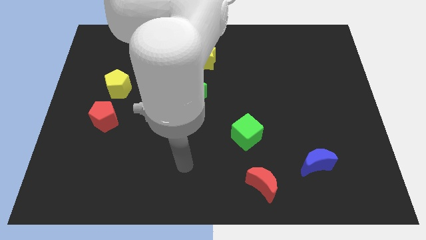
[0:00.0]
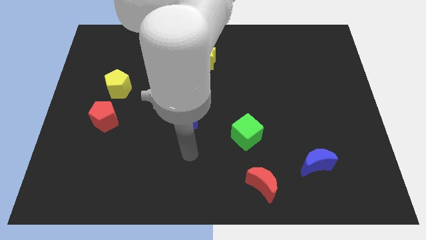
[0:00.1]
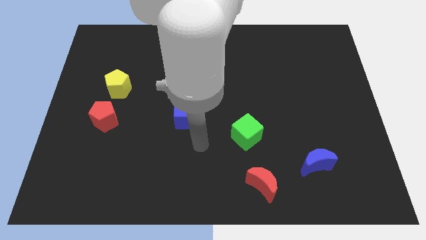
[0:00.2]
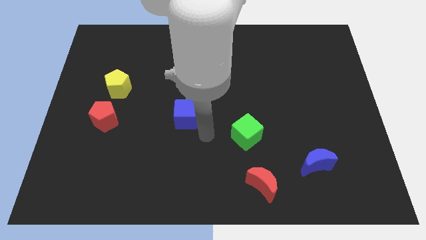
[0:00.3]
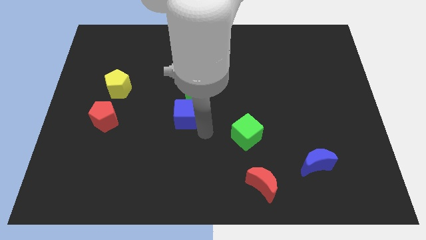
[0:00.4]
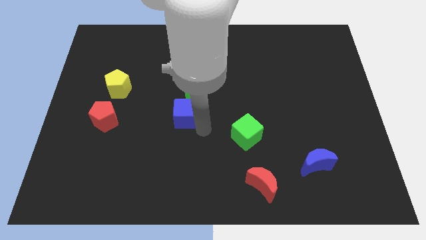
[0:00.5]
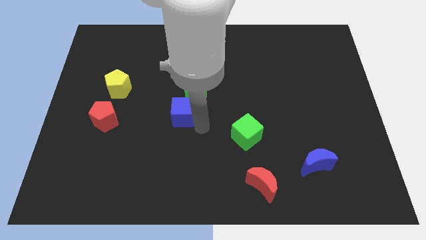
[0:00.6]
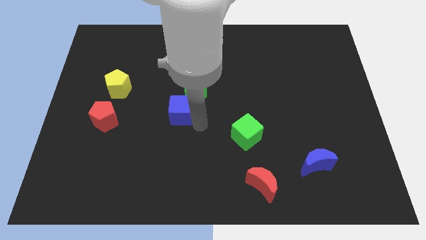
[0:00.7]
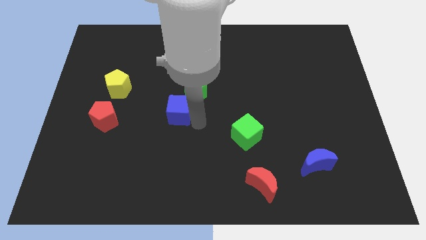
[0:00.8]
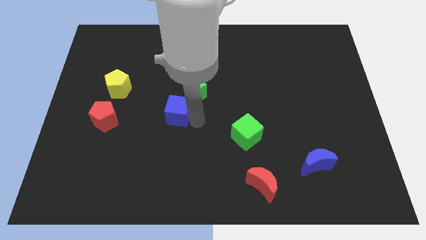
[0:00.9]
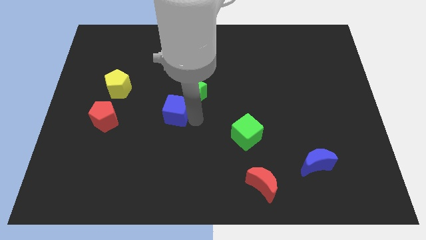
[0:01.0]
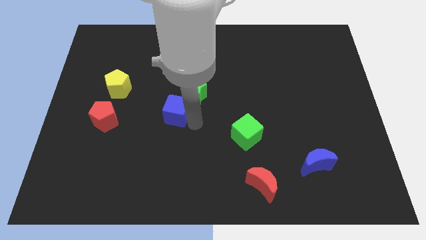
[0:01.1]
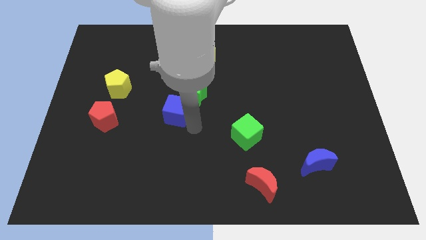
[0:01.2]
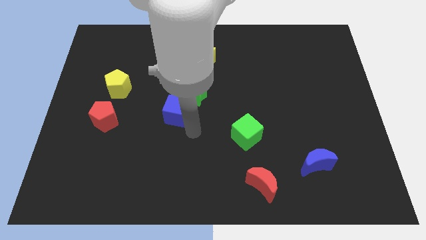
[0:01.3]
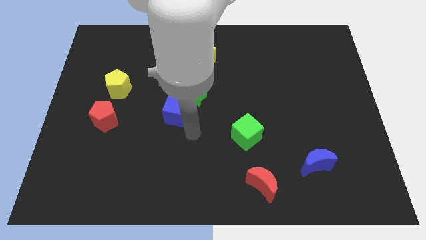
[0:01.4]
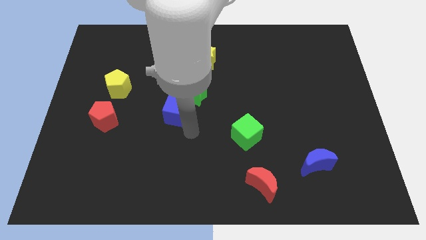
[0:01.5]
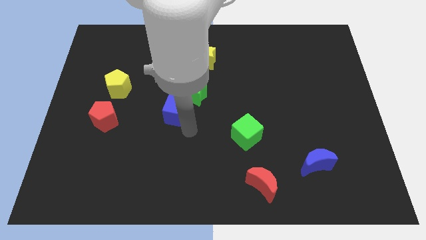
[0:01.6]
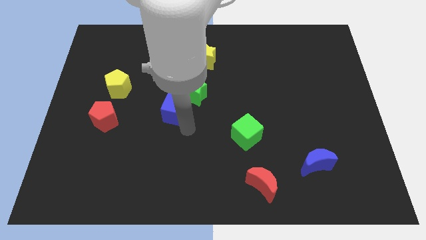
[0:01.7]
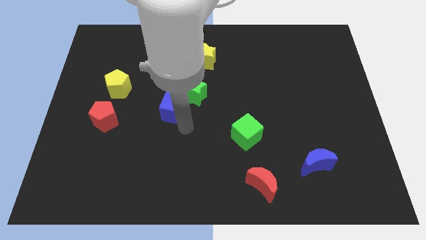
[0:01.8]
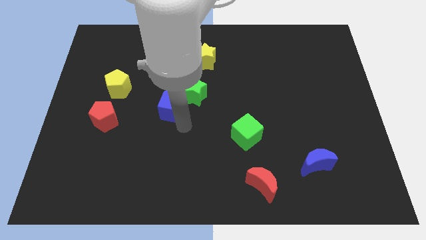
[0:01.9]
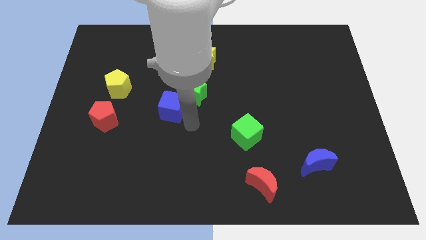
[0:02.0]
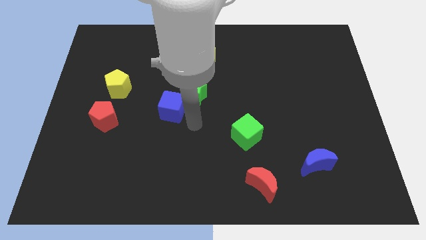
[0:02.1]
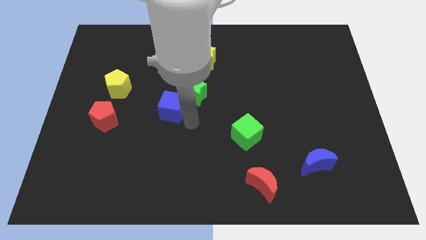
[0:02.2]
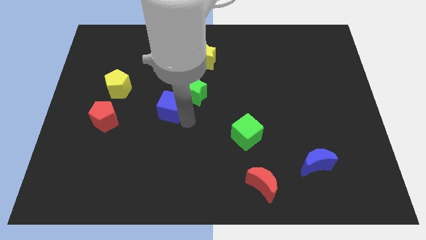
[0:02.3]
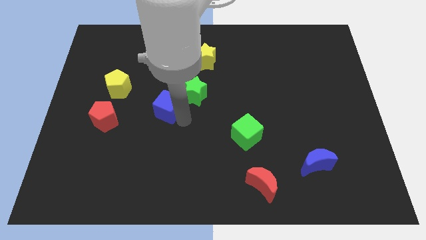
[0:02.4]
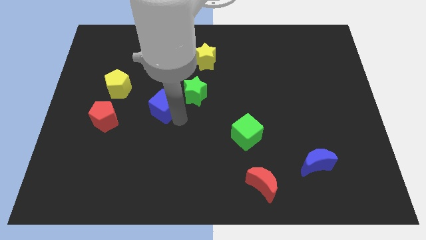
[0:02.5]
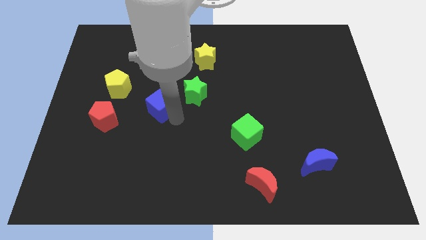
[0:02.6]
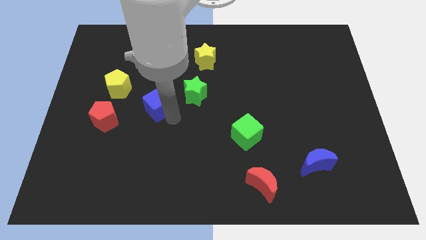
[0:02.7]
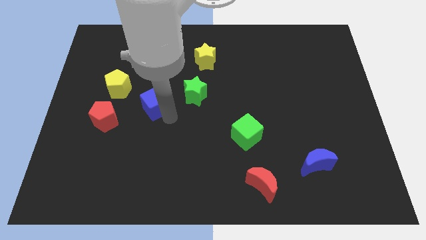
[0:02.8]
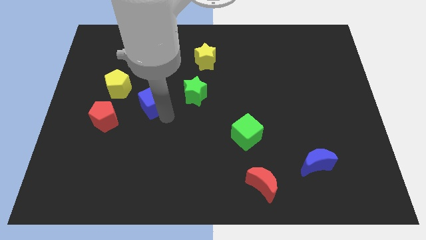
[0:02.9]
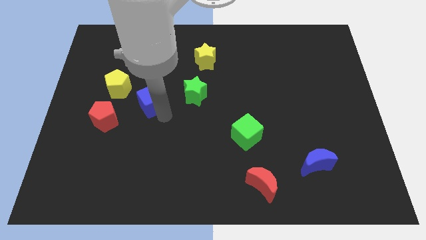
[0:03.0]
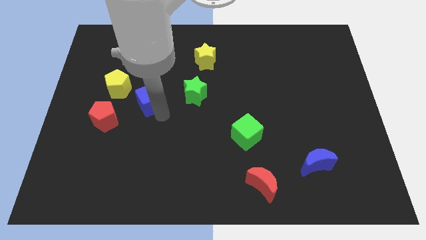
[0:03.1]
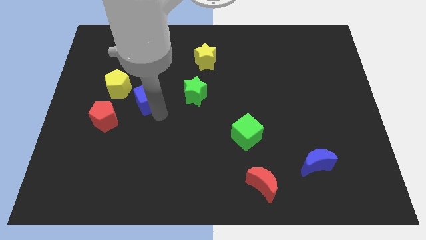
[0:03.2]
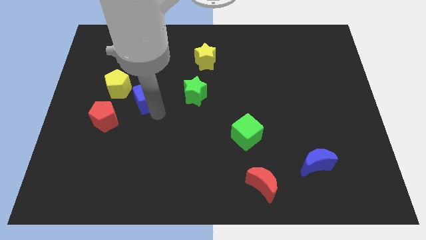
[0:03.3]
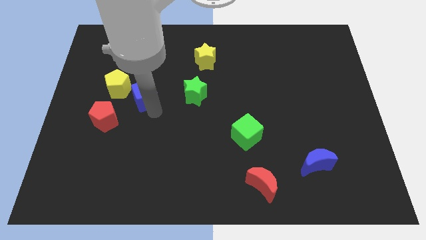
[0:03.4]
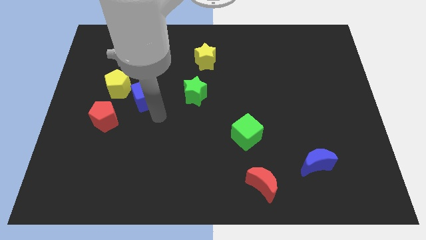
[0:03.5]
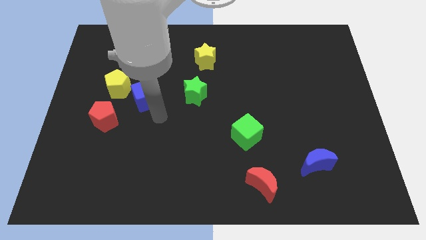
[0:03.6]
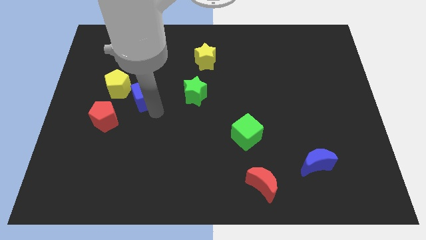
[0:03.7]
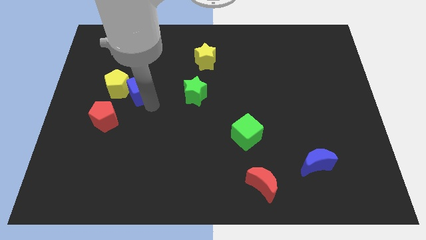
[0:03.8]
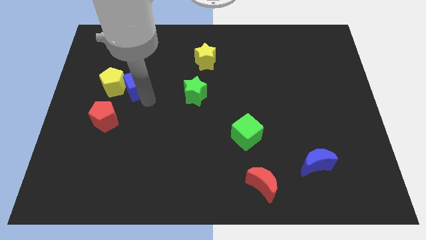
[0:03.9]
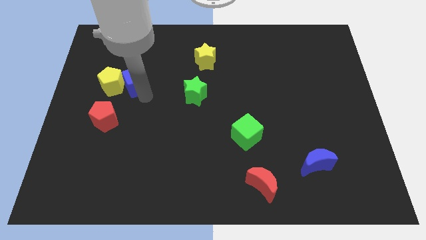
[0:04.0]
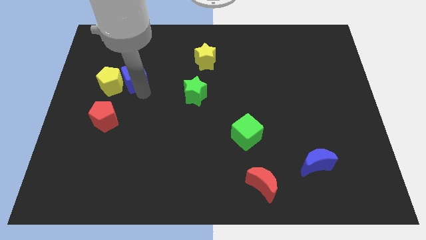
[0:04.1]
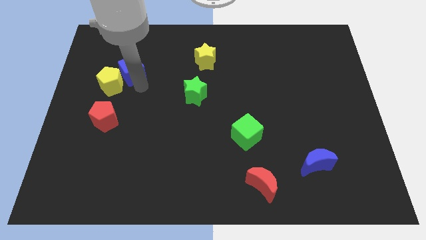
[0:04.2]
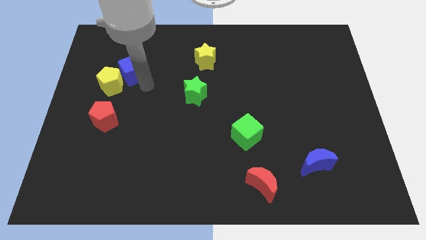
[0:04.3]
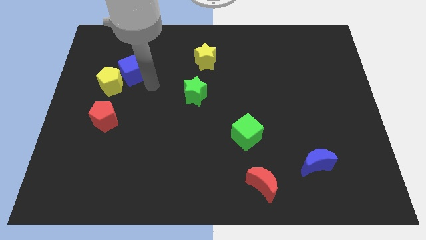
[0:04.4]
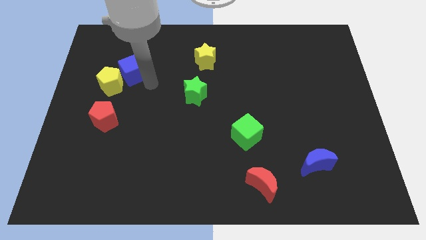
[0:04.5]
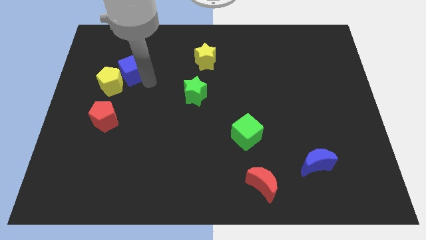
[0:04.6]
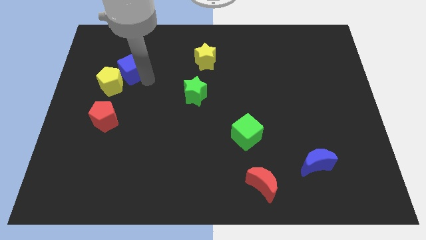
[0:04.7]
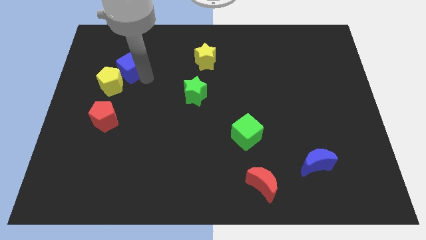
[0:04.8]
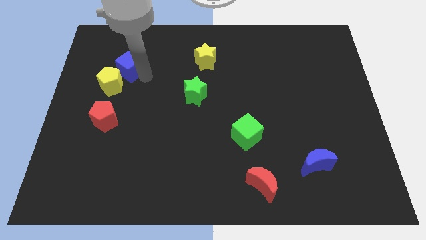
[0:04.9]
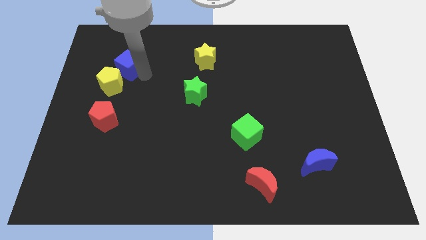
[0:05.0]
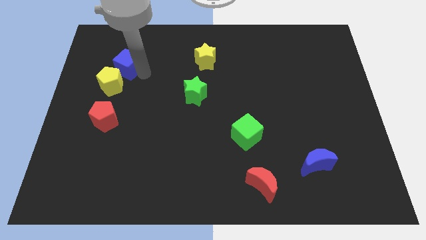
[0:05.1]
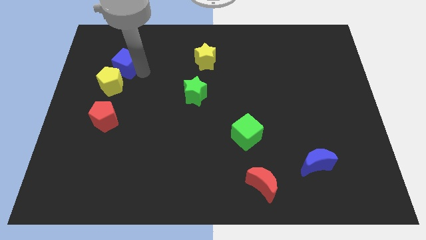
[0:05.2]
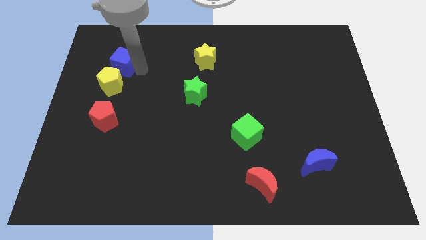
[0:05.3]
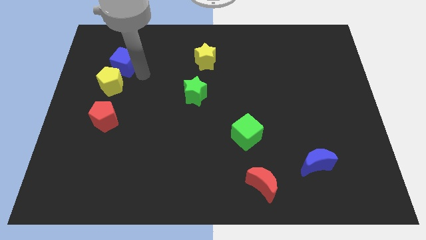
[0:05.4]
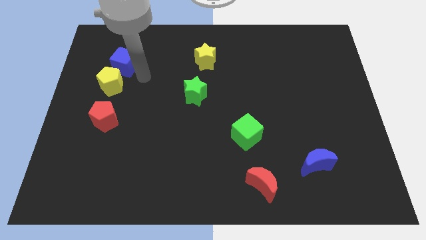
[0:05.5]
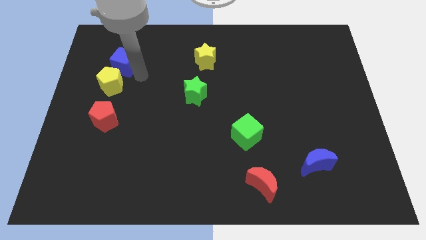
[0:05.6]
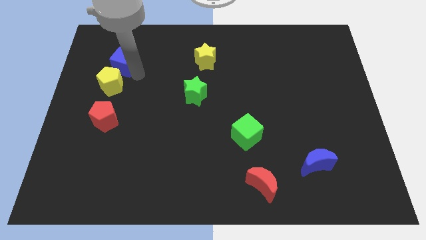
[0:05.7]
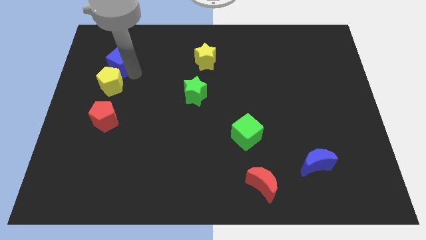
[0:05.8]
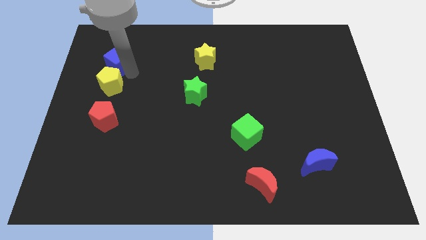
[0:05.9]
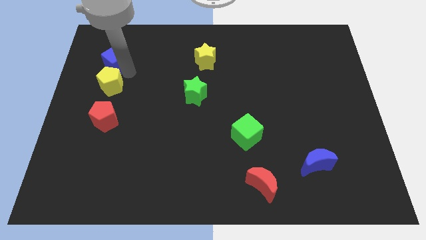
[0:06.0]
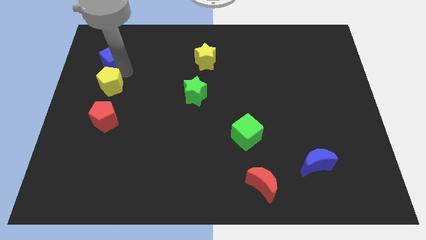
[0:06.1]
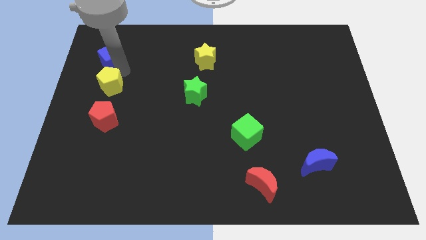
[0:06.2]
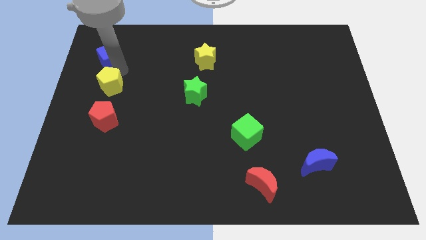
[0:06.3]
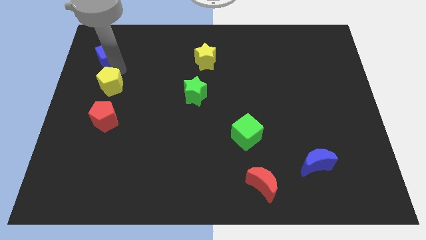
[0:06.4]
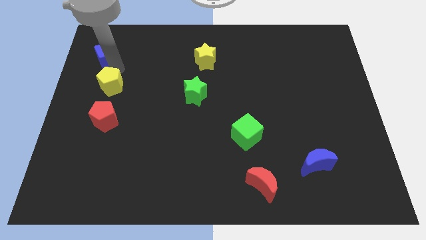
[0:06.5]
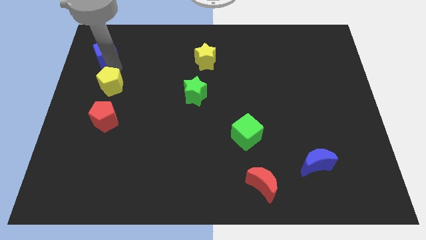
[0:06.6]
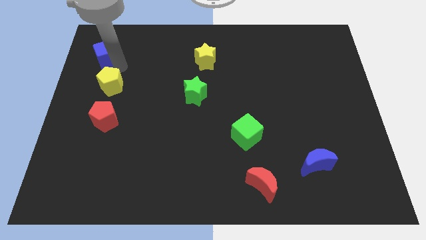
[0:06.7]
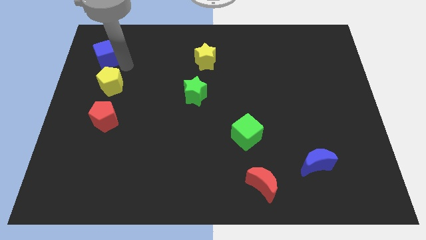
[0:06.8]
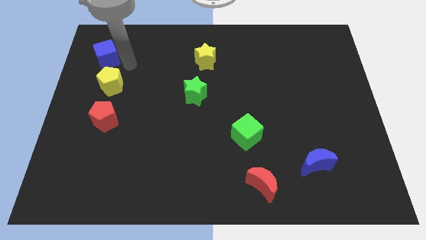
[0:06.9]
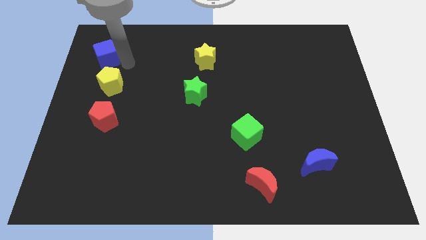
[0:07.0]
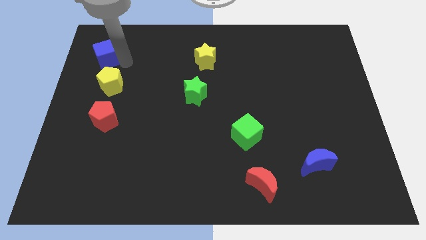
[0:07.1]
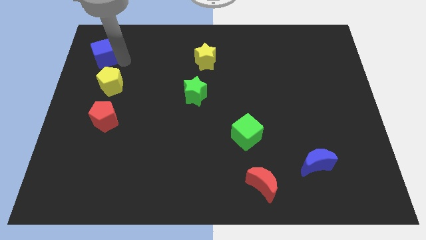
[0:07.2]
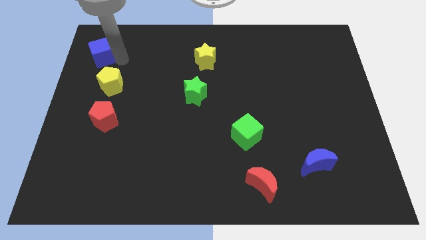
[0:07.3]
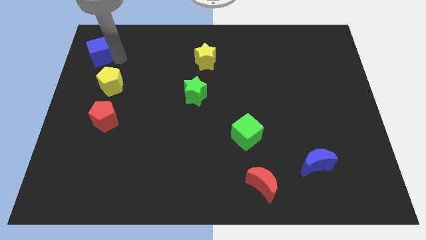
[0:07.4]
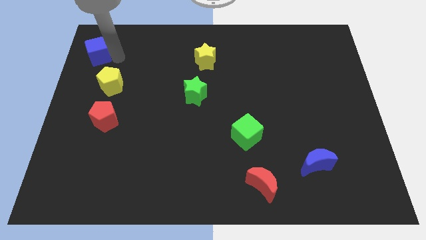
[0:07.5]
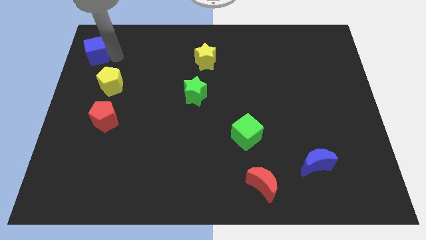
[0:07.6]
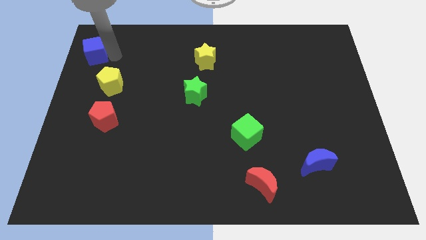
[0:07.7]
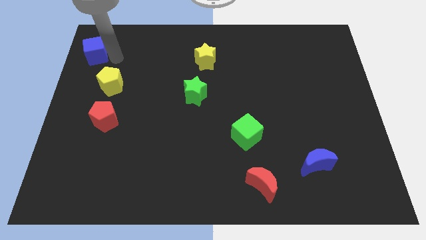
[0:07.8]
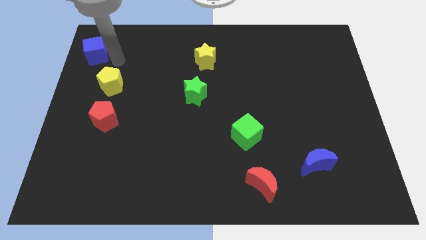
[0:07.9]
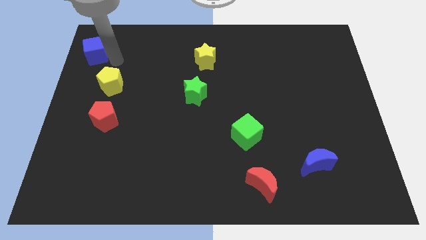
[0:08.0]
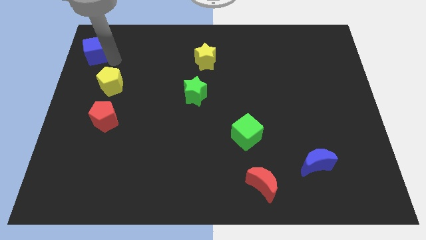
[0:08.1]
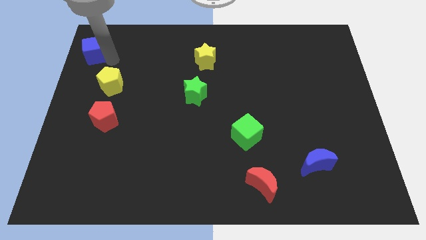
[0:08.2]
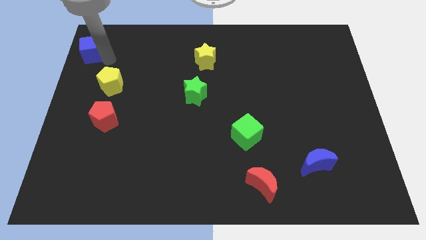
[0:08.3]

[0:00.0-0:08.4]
push the blue cube to the upper left corner
